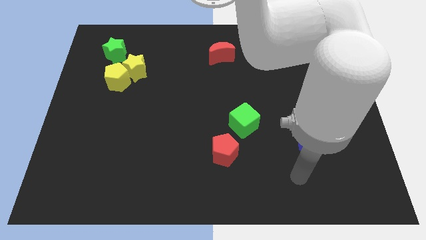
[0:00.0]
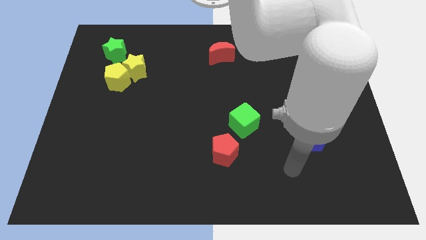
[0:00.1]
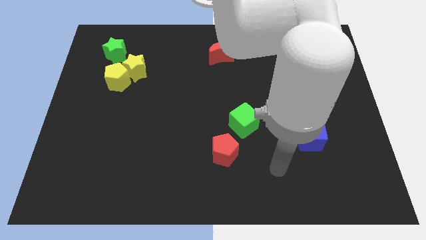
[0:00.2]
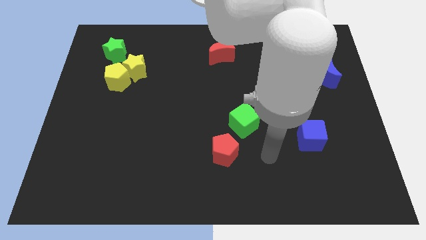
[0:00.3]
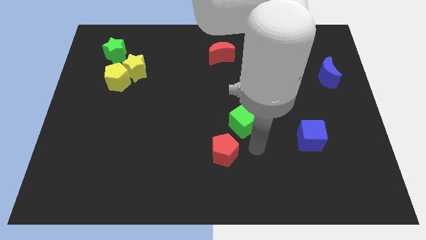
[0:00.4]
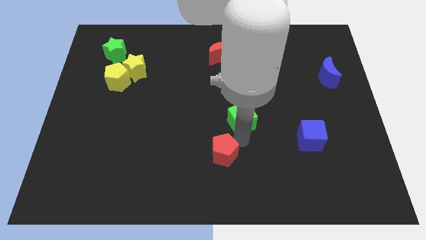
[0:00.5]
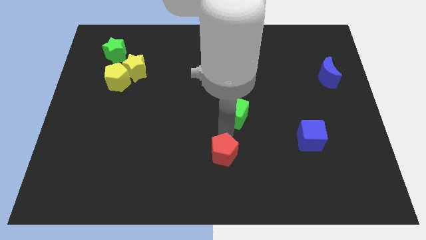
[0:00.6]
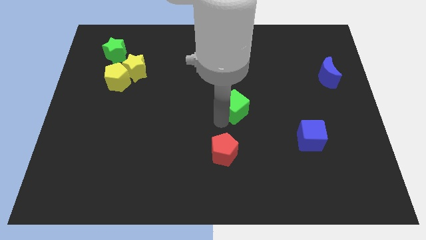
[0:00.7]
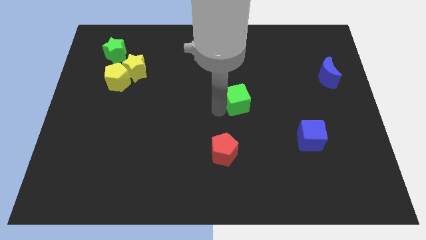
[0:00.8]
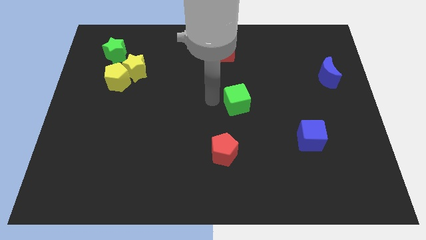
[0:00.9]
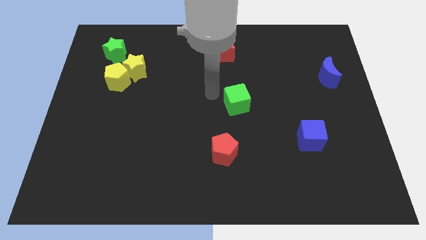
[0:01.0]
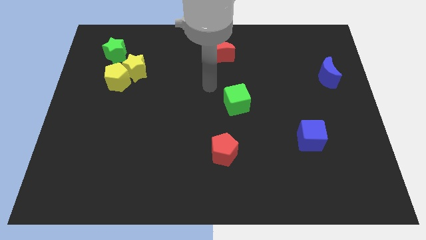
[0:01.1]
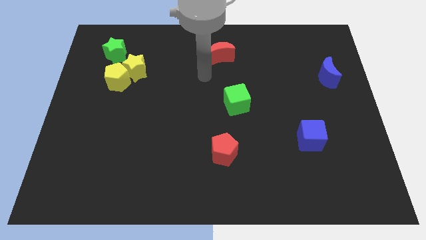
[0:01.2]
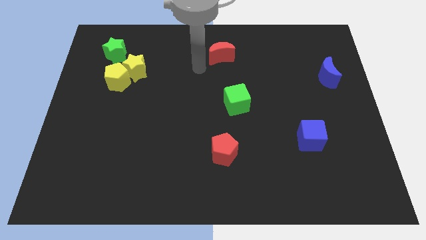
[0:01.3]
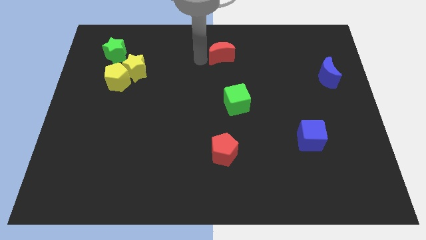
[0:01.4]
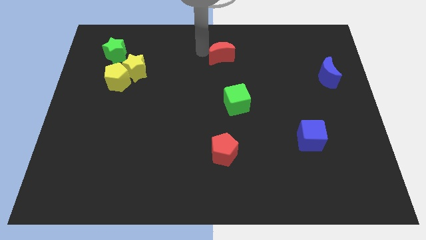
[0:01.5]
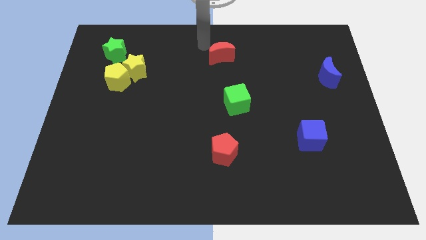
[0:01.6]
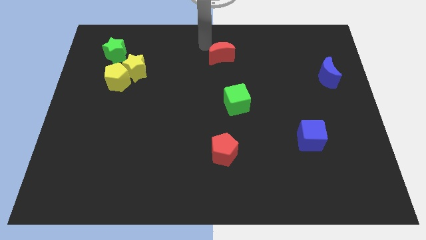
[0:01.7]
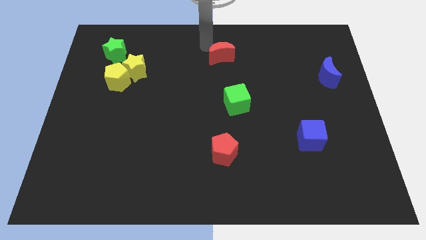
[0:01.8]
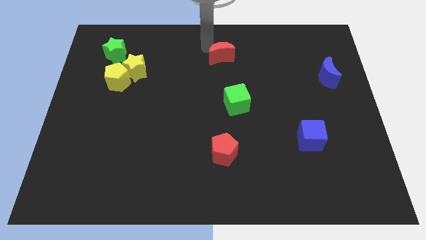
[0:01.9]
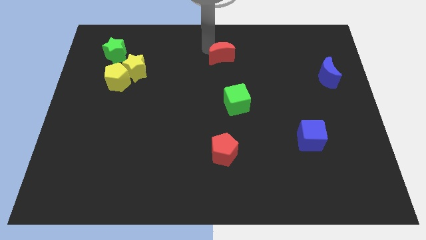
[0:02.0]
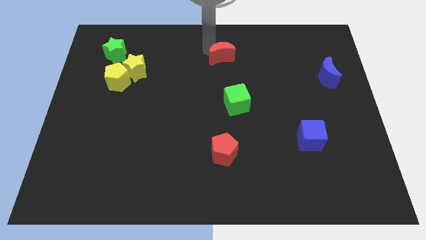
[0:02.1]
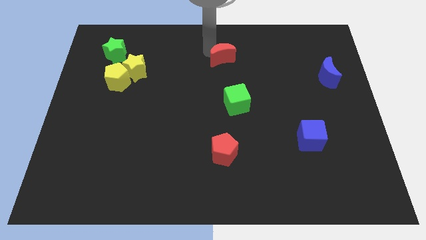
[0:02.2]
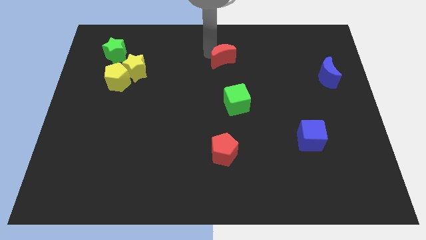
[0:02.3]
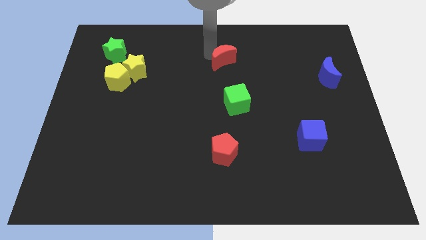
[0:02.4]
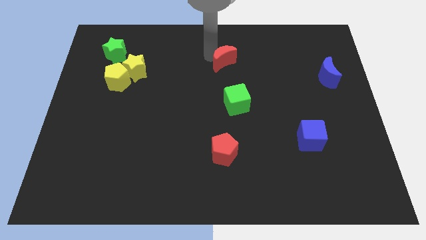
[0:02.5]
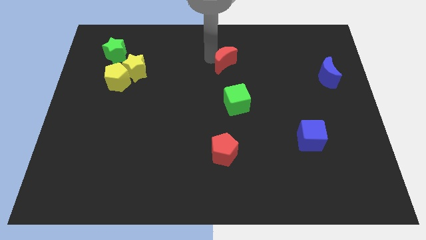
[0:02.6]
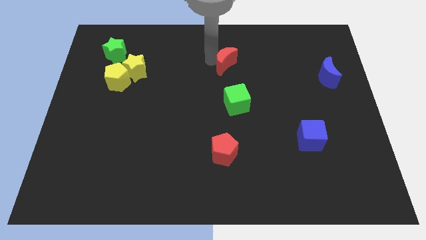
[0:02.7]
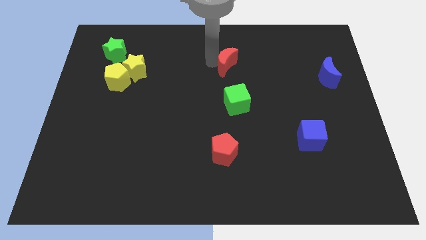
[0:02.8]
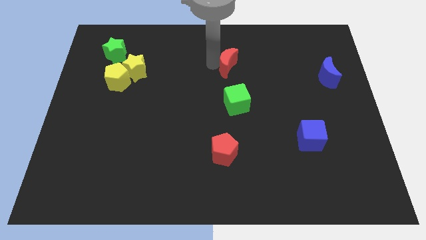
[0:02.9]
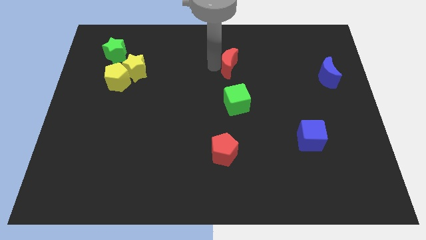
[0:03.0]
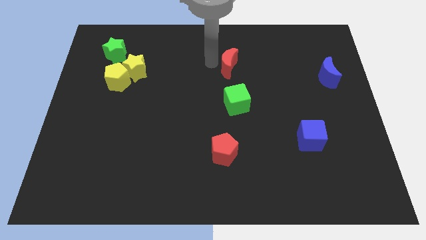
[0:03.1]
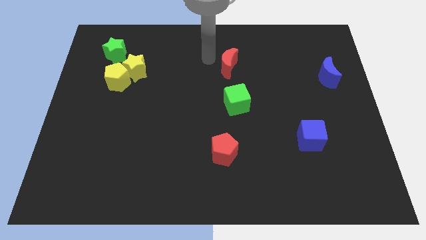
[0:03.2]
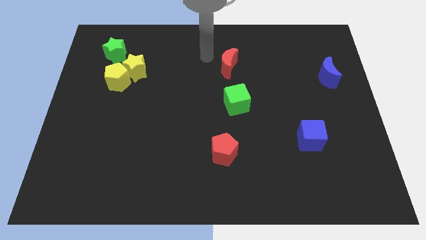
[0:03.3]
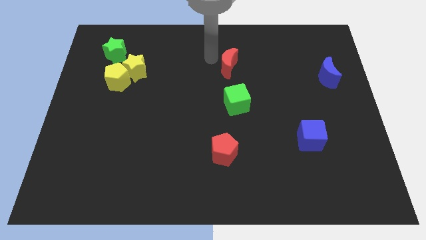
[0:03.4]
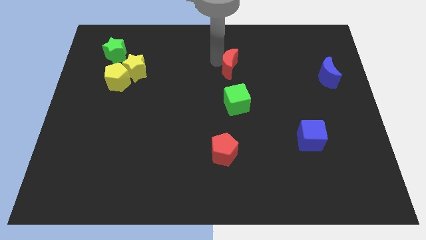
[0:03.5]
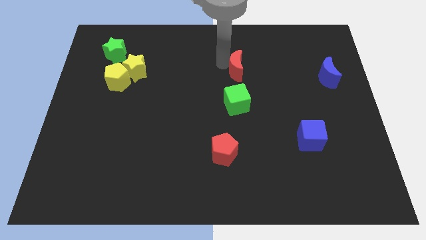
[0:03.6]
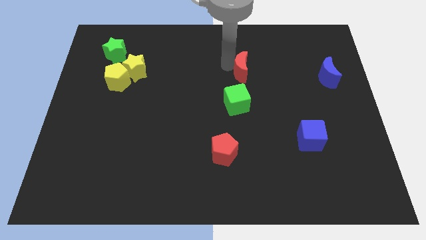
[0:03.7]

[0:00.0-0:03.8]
slide the red moon diagonally downwards and right somewhat

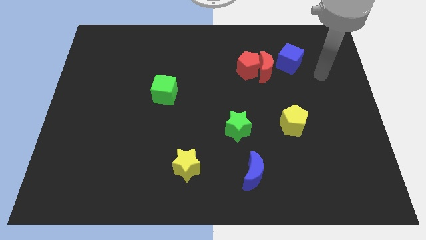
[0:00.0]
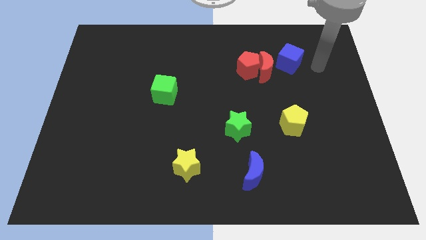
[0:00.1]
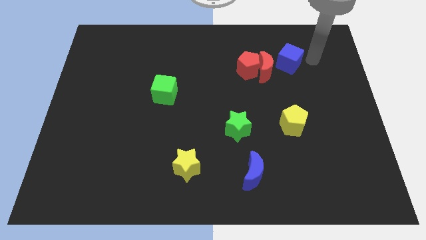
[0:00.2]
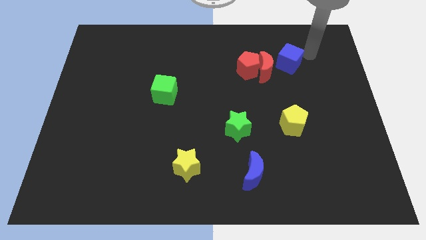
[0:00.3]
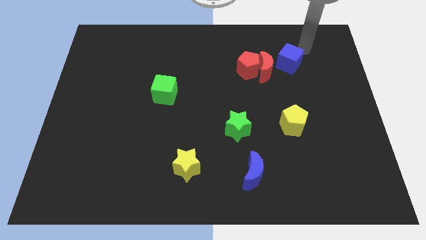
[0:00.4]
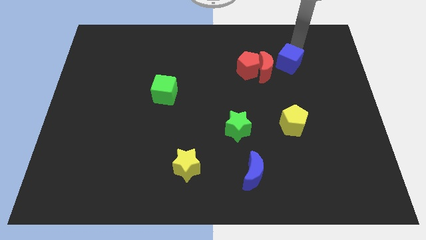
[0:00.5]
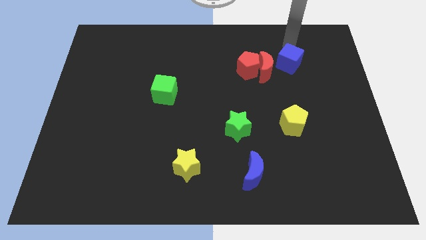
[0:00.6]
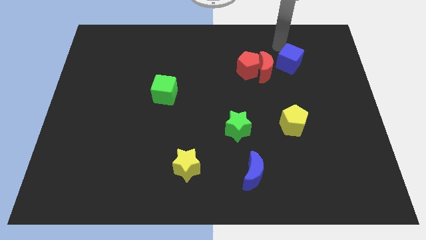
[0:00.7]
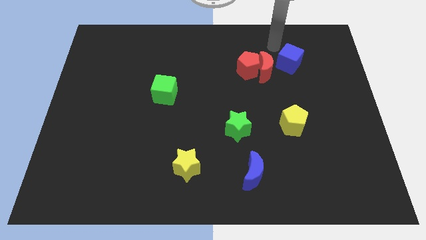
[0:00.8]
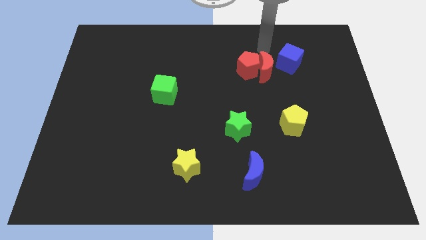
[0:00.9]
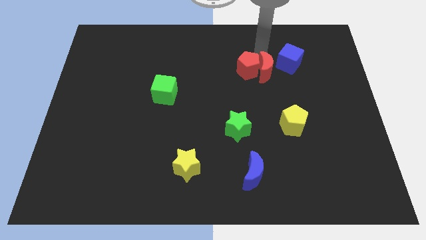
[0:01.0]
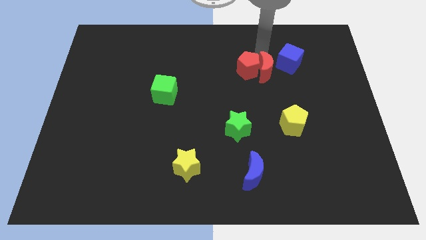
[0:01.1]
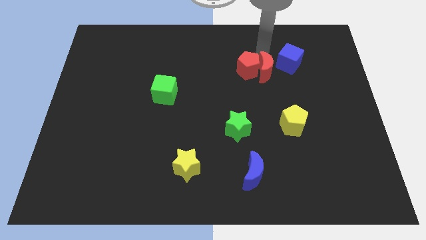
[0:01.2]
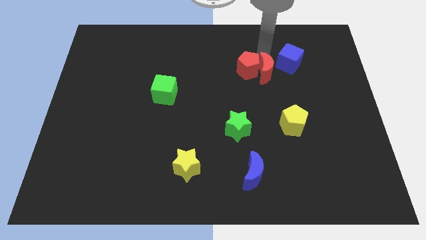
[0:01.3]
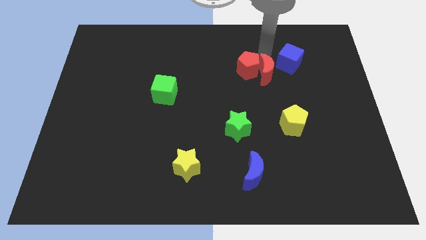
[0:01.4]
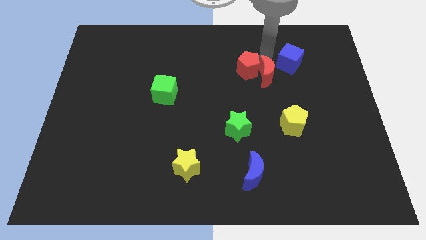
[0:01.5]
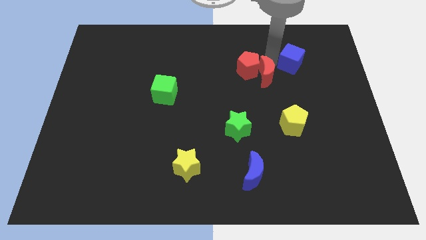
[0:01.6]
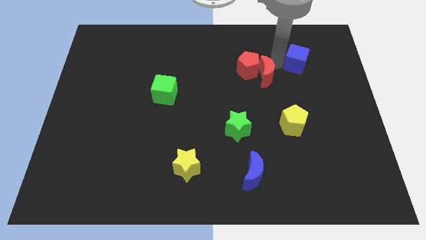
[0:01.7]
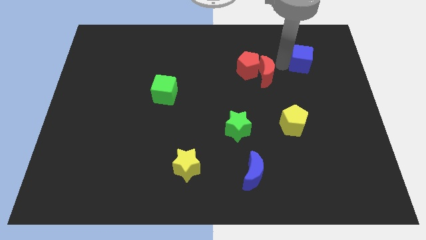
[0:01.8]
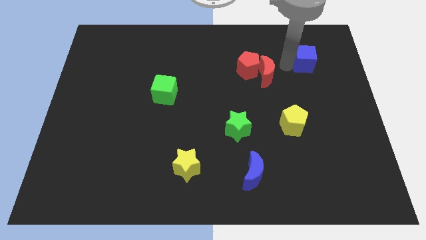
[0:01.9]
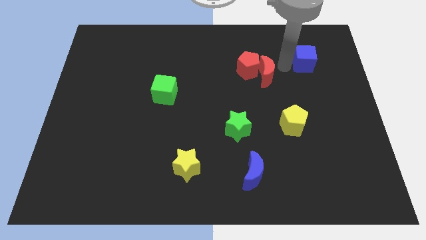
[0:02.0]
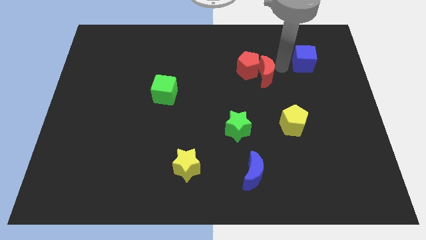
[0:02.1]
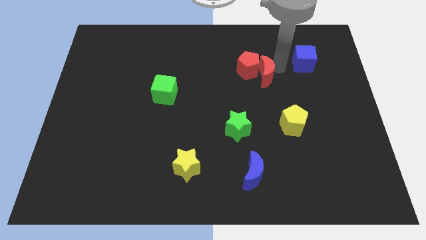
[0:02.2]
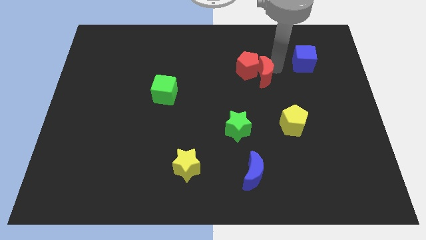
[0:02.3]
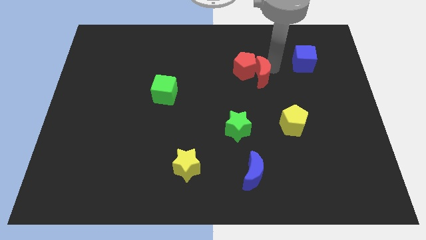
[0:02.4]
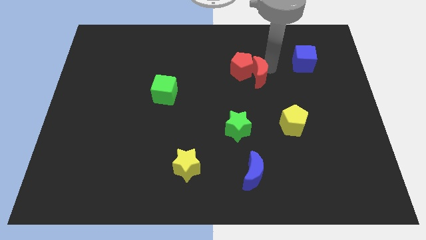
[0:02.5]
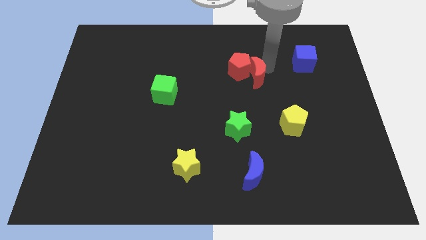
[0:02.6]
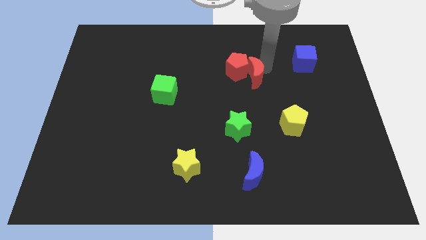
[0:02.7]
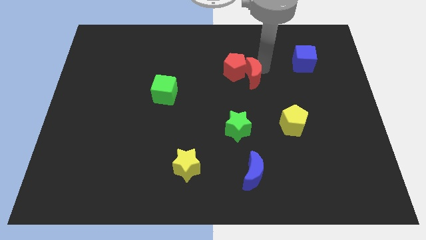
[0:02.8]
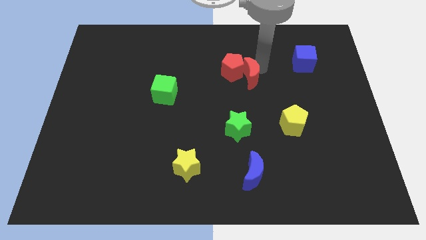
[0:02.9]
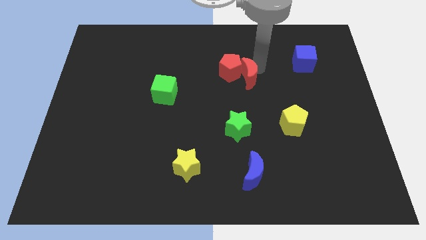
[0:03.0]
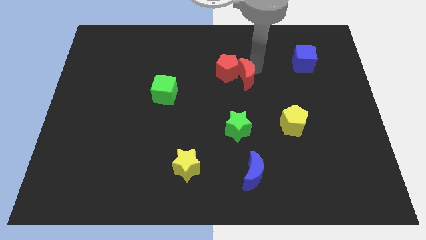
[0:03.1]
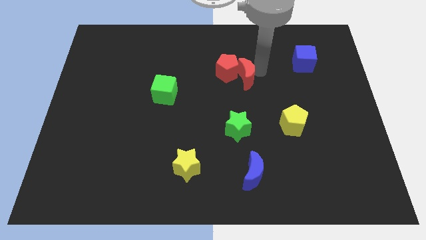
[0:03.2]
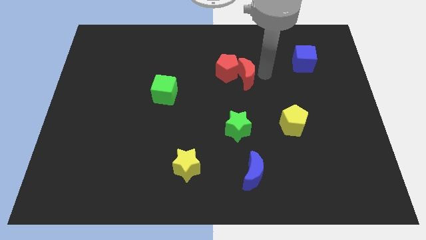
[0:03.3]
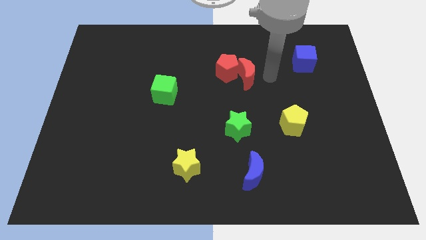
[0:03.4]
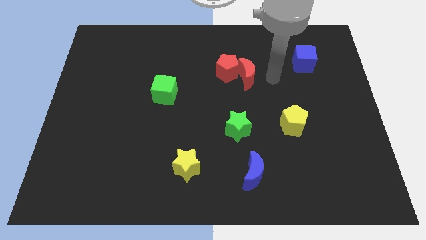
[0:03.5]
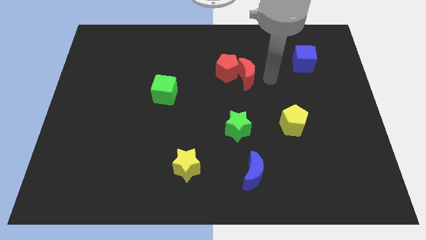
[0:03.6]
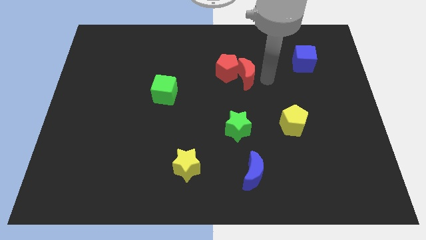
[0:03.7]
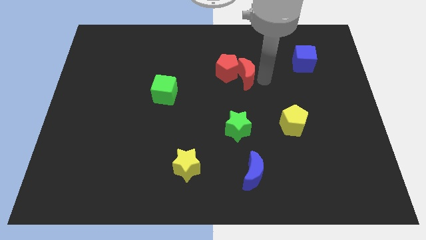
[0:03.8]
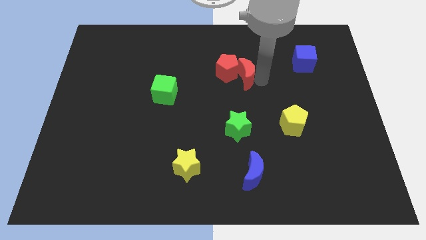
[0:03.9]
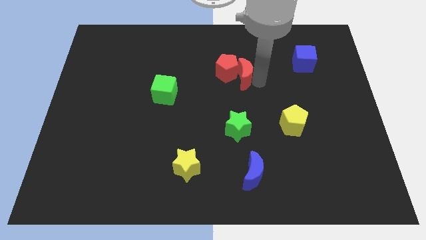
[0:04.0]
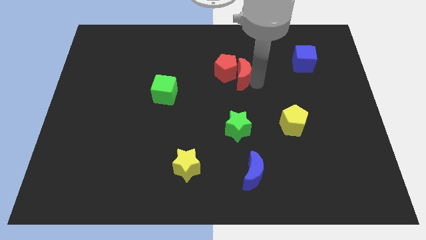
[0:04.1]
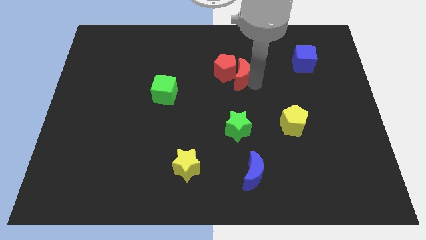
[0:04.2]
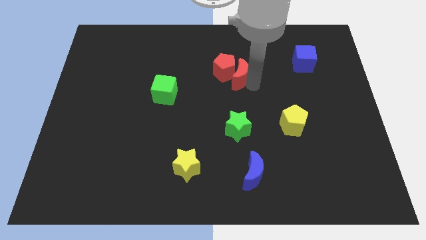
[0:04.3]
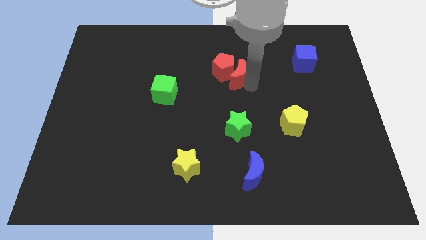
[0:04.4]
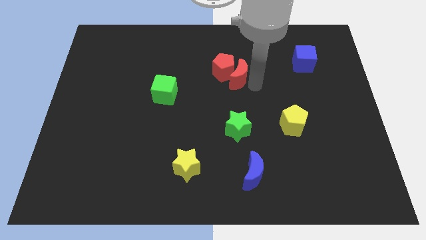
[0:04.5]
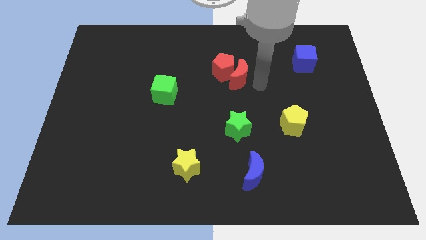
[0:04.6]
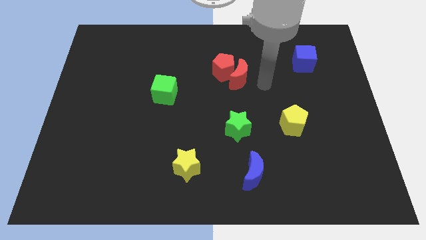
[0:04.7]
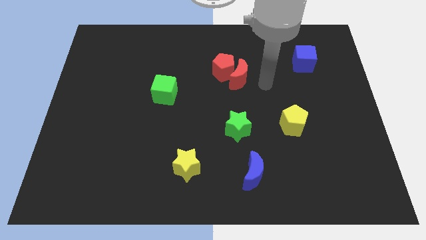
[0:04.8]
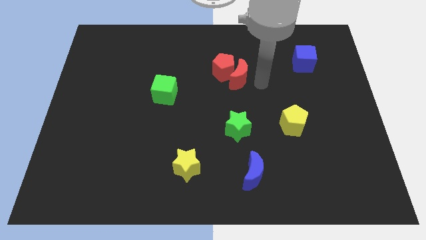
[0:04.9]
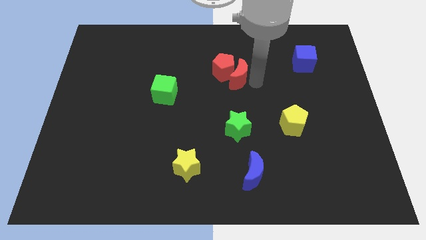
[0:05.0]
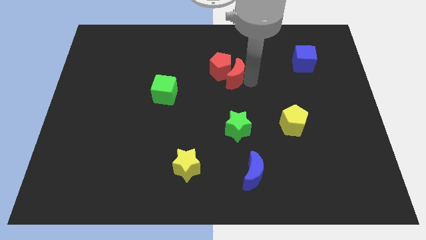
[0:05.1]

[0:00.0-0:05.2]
slightly push the red moon left
